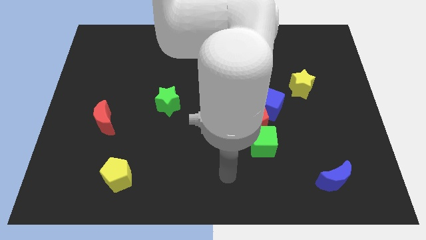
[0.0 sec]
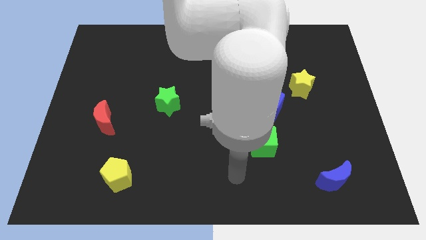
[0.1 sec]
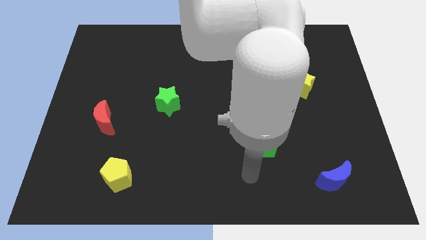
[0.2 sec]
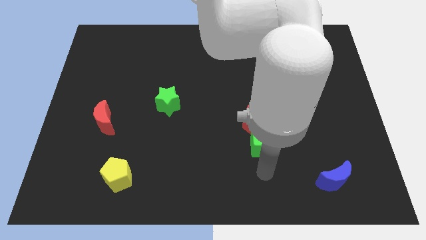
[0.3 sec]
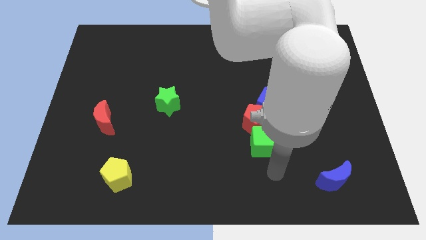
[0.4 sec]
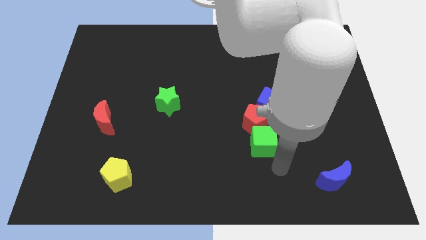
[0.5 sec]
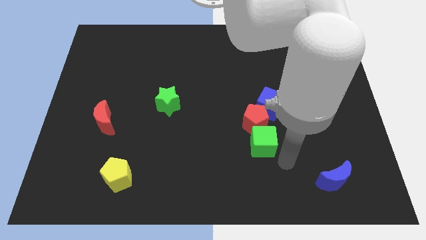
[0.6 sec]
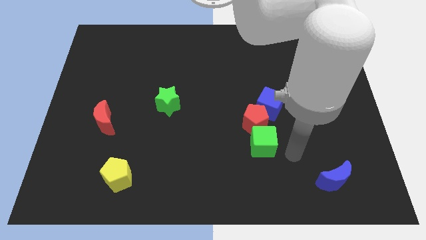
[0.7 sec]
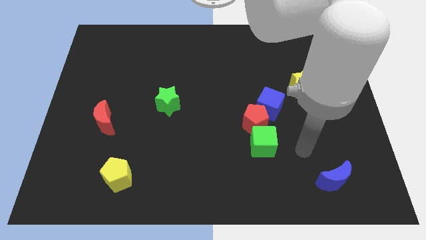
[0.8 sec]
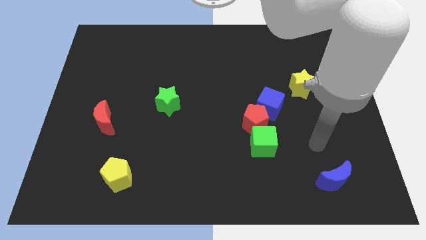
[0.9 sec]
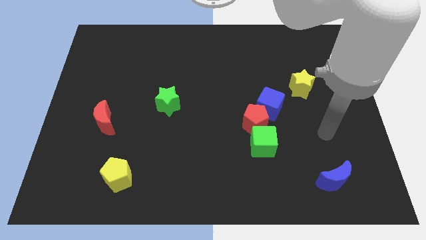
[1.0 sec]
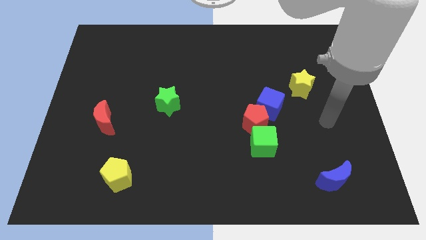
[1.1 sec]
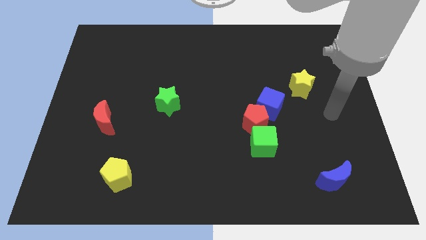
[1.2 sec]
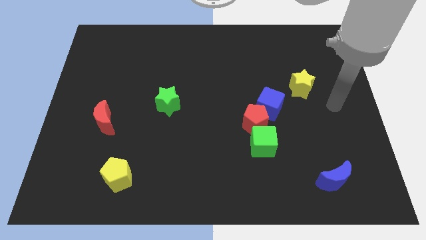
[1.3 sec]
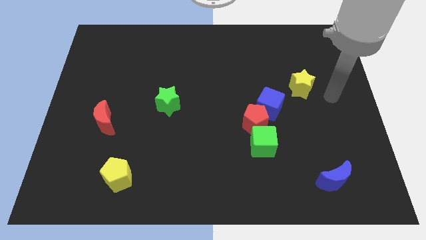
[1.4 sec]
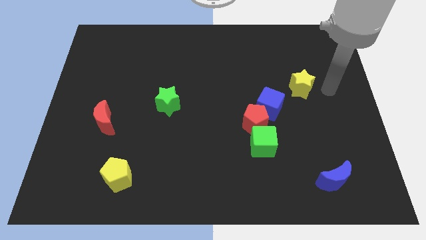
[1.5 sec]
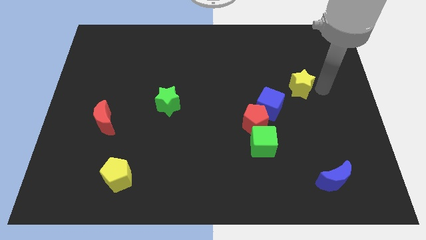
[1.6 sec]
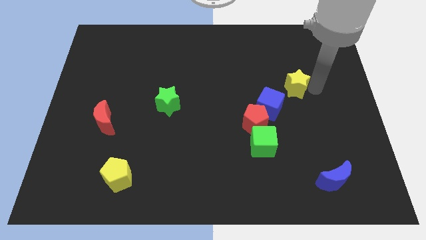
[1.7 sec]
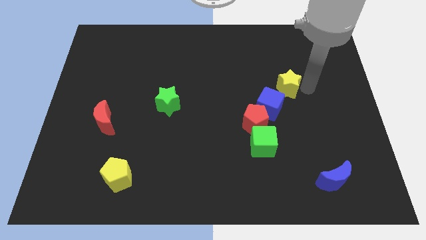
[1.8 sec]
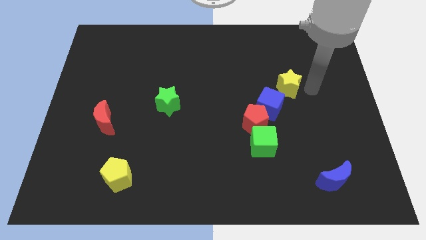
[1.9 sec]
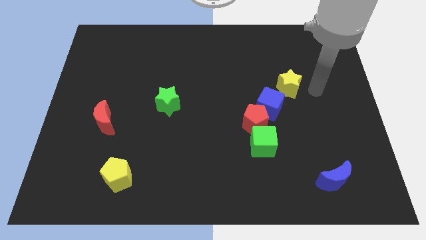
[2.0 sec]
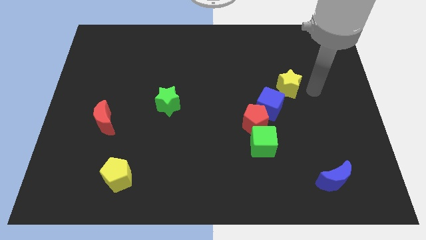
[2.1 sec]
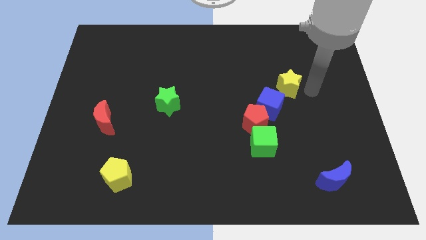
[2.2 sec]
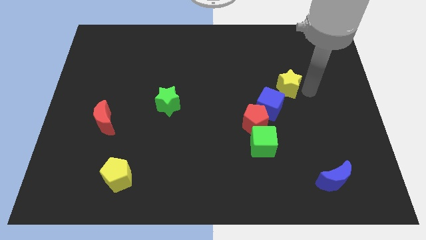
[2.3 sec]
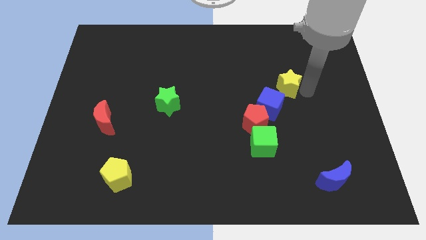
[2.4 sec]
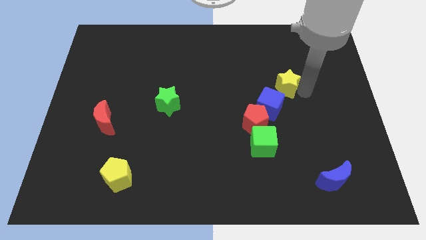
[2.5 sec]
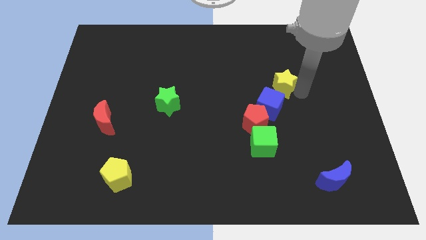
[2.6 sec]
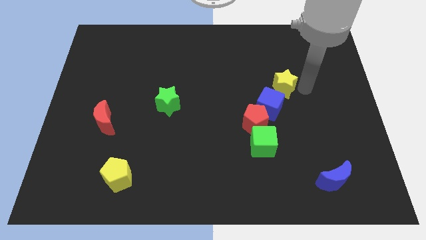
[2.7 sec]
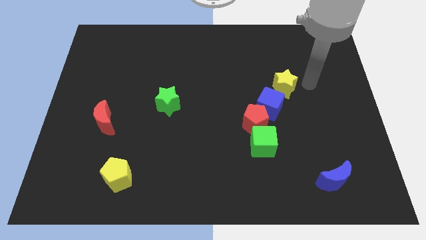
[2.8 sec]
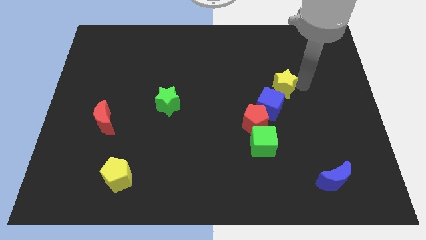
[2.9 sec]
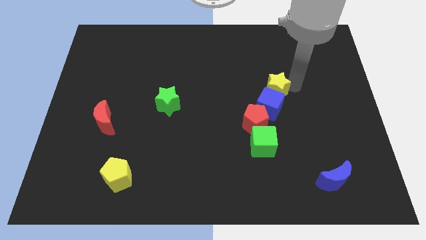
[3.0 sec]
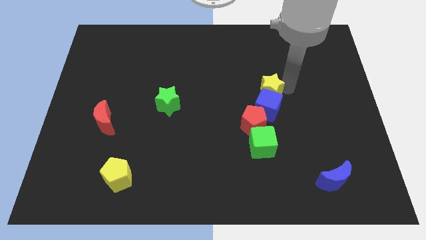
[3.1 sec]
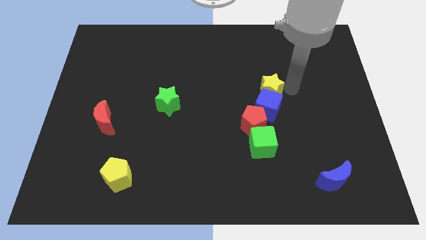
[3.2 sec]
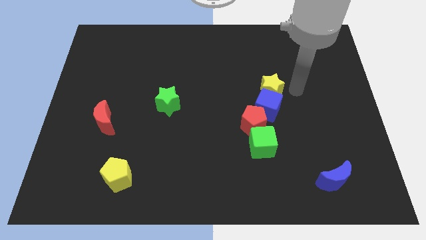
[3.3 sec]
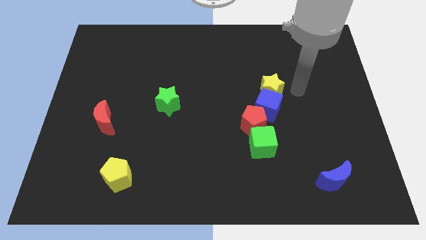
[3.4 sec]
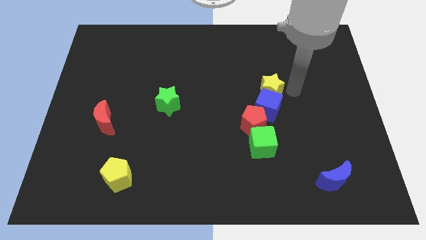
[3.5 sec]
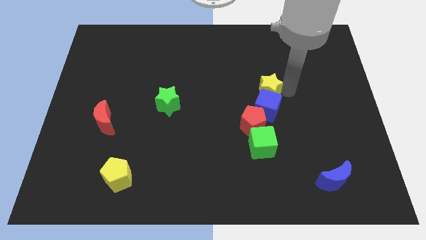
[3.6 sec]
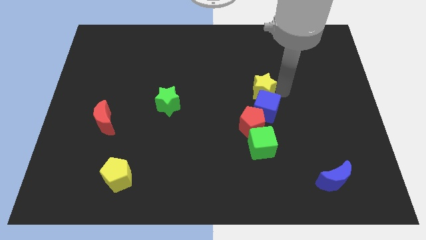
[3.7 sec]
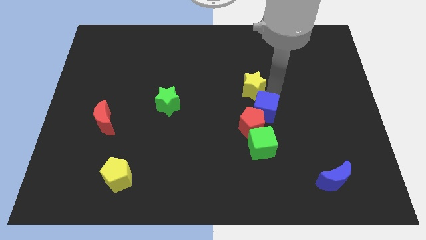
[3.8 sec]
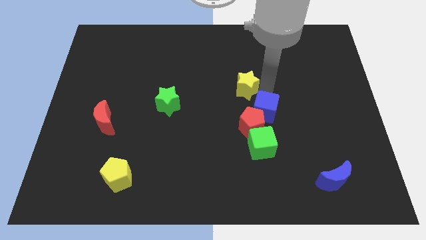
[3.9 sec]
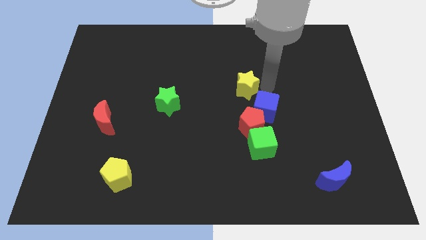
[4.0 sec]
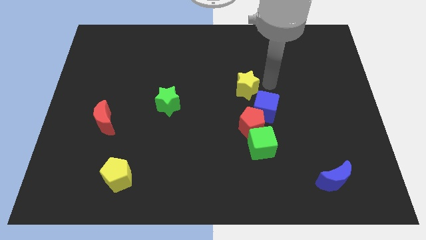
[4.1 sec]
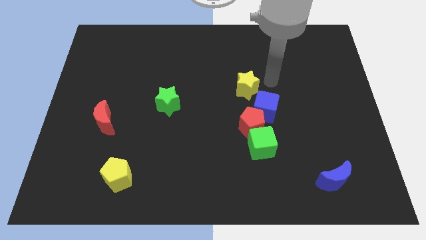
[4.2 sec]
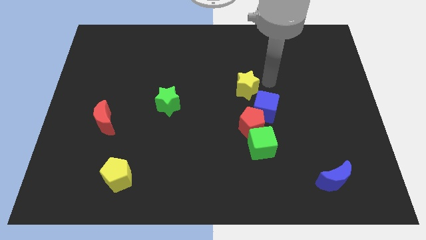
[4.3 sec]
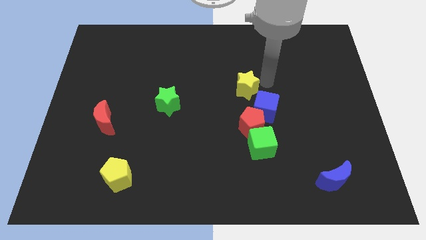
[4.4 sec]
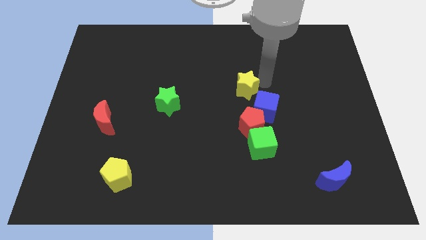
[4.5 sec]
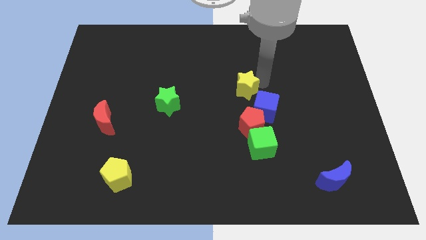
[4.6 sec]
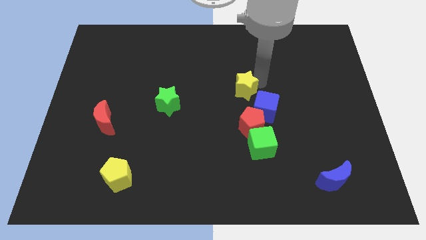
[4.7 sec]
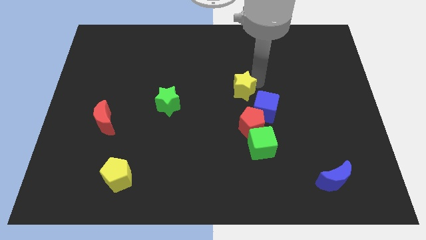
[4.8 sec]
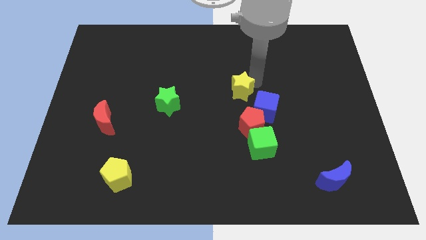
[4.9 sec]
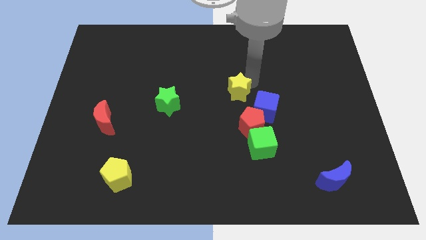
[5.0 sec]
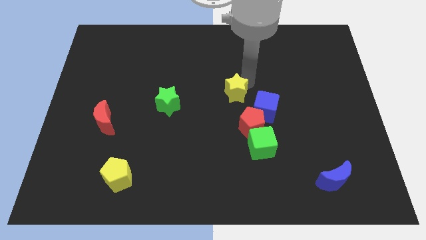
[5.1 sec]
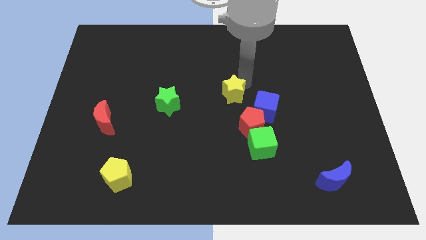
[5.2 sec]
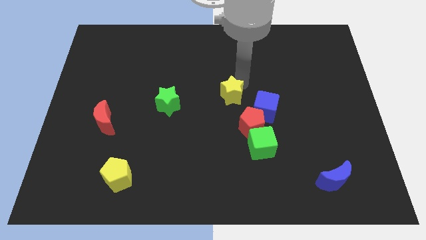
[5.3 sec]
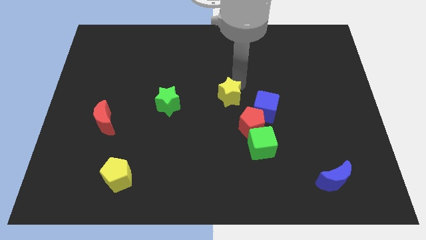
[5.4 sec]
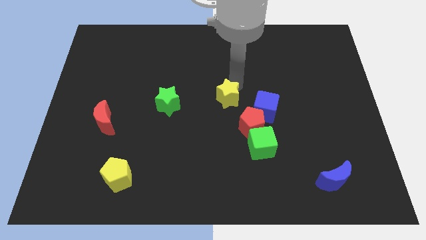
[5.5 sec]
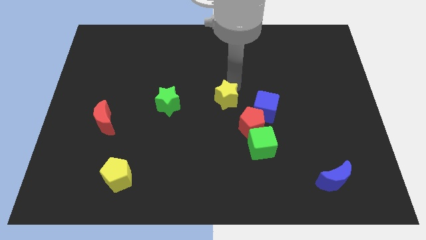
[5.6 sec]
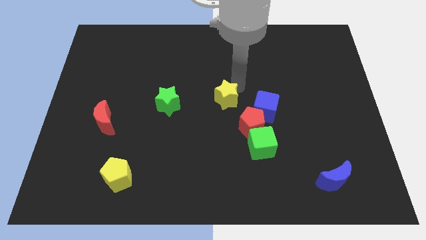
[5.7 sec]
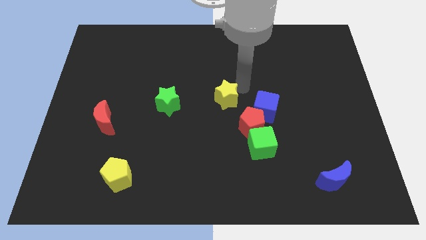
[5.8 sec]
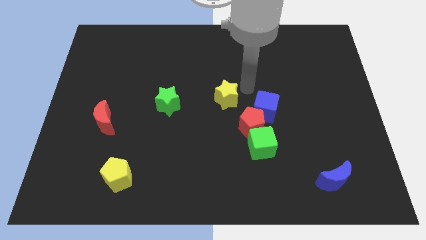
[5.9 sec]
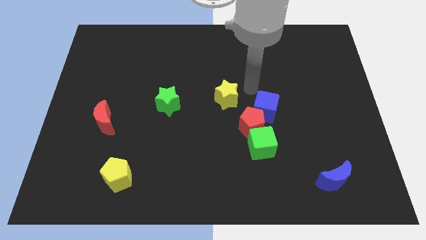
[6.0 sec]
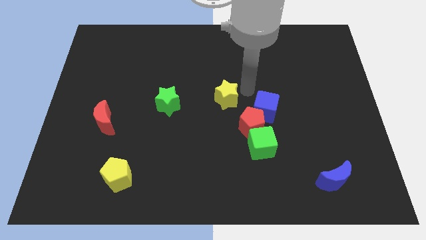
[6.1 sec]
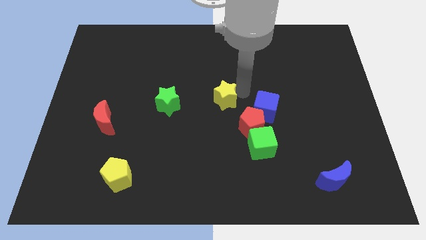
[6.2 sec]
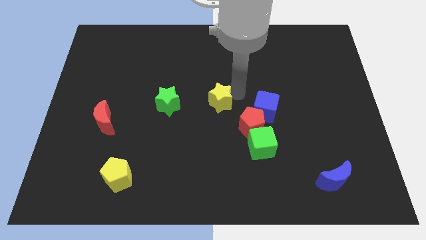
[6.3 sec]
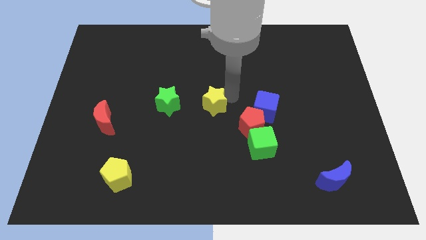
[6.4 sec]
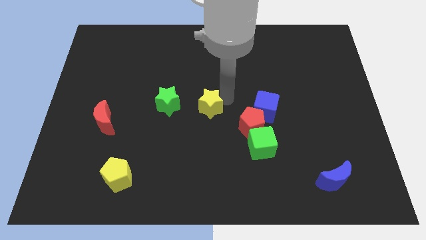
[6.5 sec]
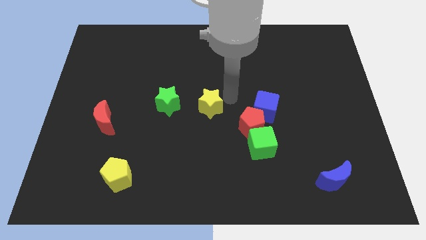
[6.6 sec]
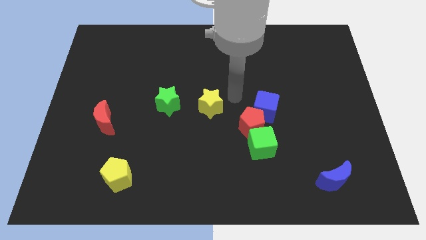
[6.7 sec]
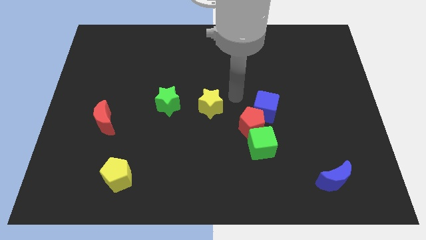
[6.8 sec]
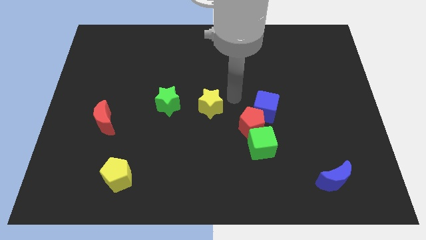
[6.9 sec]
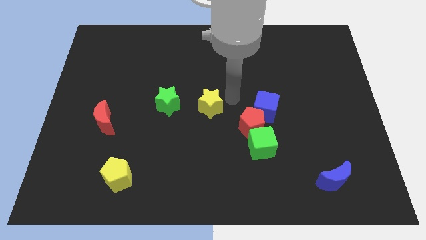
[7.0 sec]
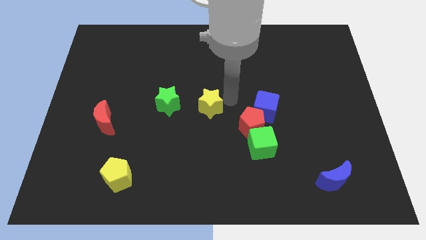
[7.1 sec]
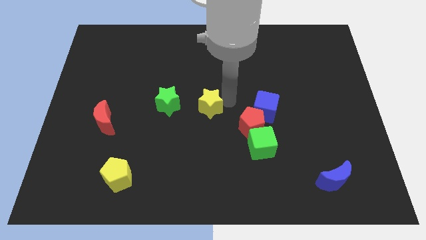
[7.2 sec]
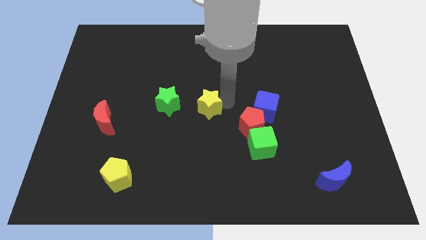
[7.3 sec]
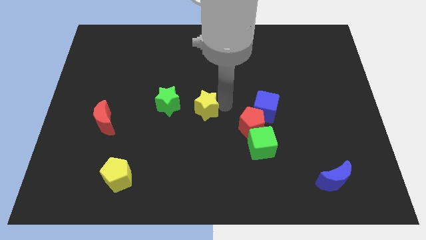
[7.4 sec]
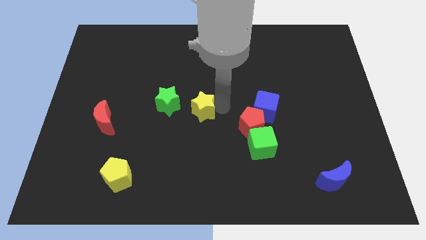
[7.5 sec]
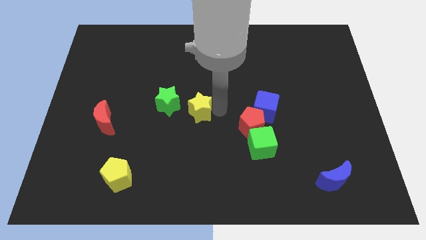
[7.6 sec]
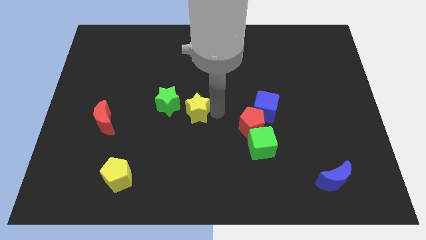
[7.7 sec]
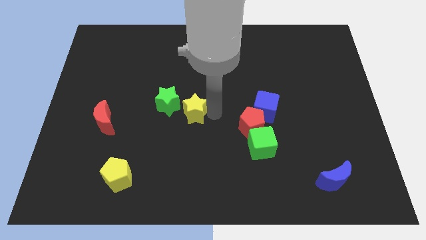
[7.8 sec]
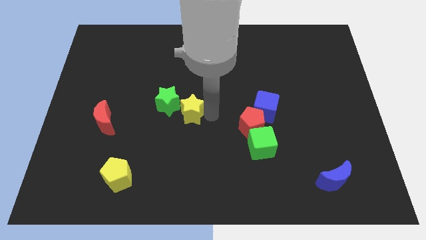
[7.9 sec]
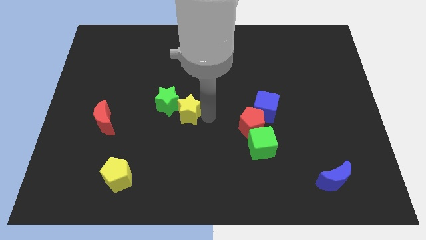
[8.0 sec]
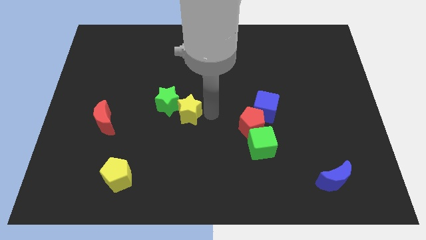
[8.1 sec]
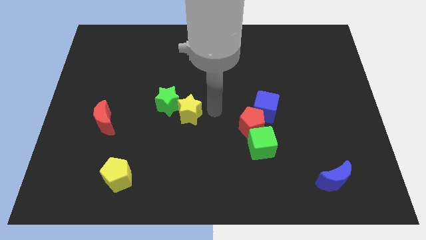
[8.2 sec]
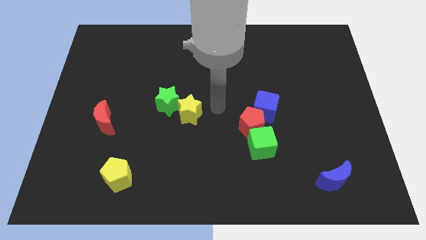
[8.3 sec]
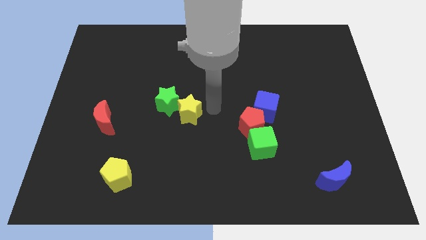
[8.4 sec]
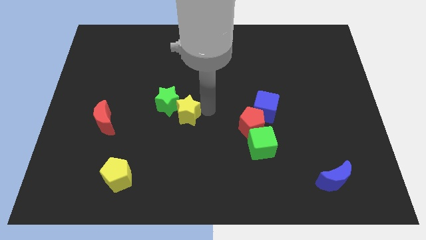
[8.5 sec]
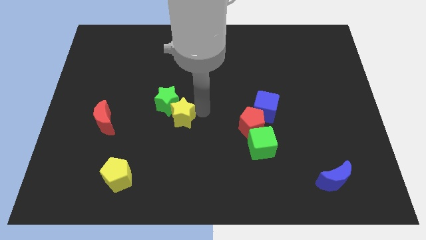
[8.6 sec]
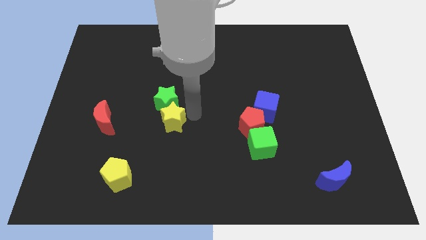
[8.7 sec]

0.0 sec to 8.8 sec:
push the yellow star to the bottom left of the green star
